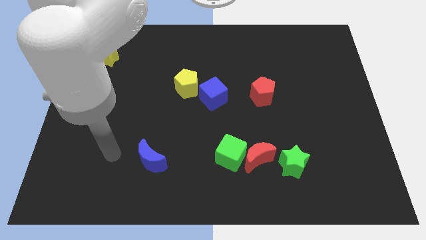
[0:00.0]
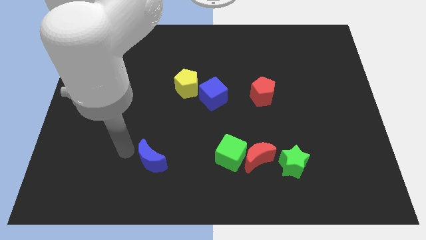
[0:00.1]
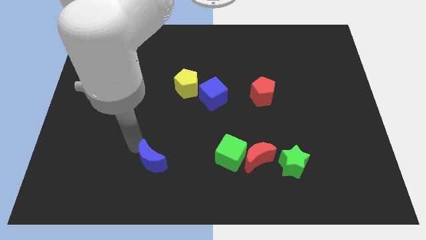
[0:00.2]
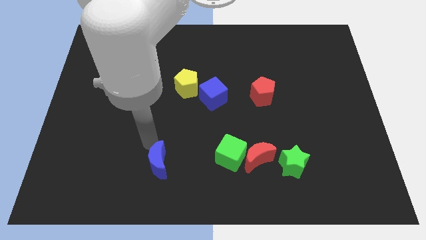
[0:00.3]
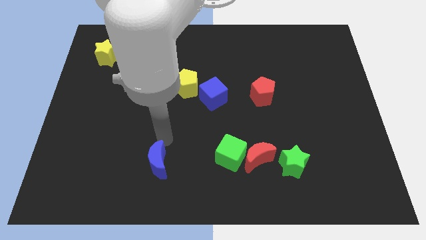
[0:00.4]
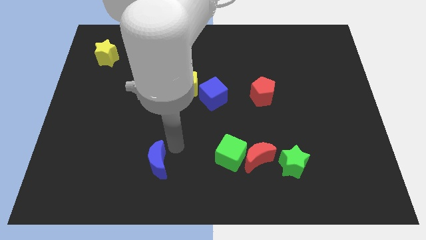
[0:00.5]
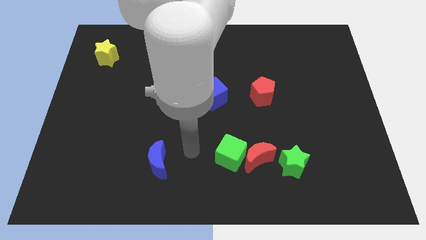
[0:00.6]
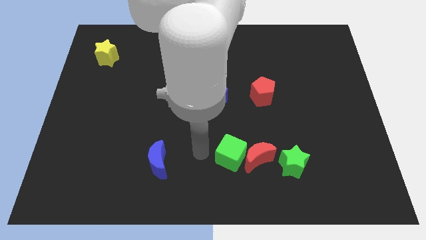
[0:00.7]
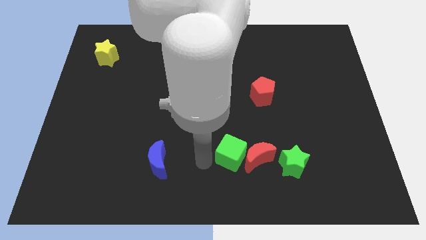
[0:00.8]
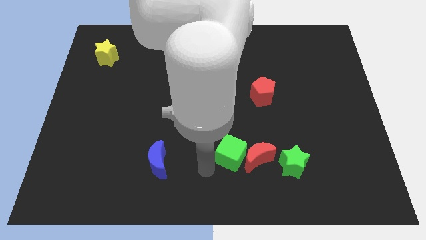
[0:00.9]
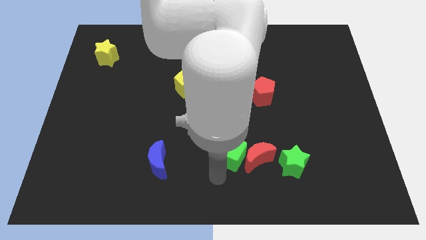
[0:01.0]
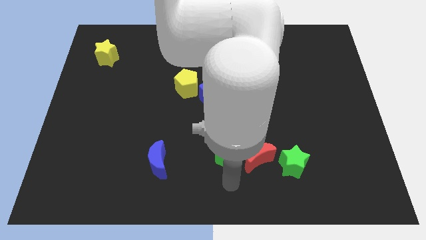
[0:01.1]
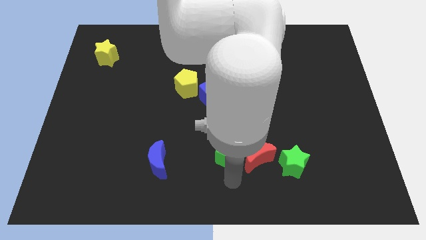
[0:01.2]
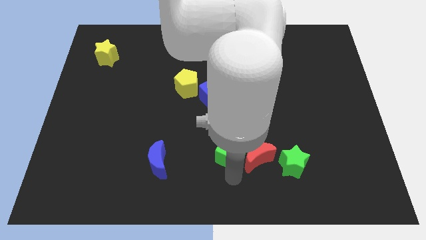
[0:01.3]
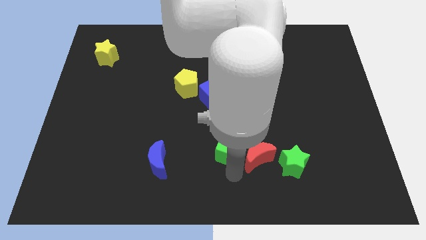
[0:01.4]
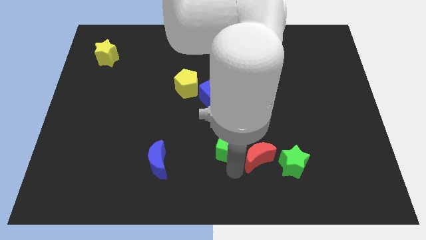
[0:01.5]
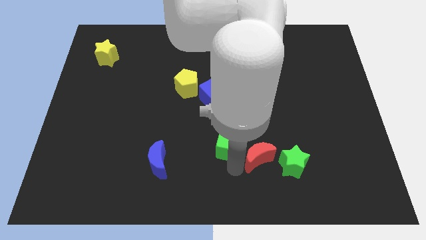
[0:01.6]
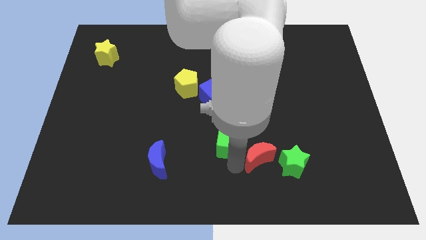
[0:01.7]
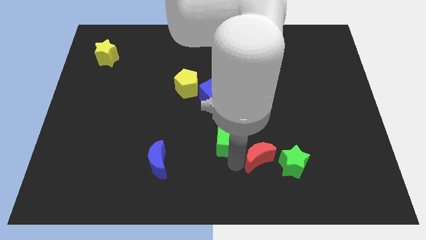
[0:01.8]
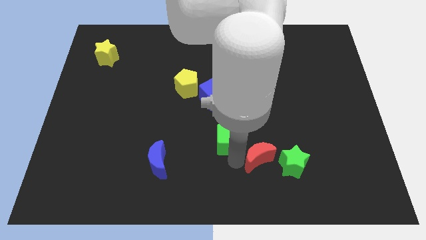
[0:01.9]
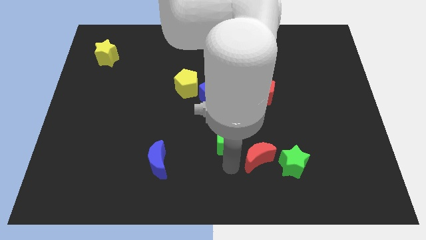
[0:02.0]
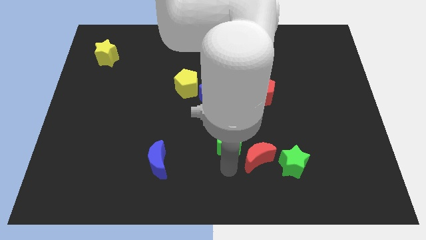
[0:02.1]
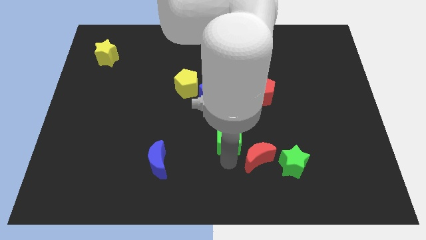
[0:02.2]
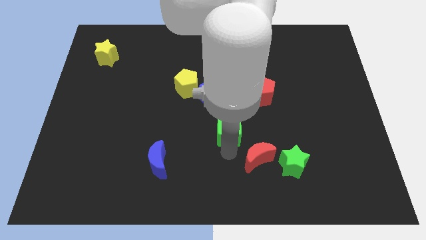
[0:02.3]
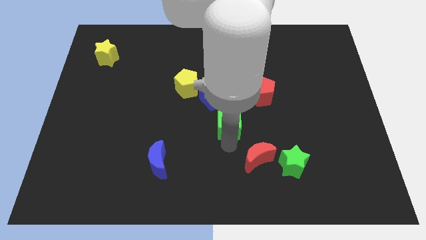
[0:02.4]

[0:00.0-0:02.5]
slide the green cube upwards somewhat

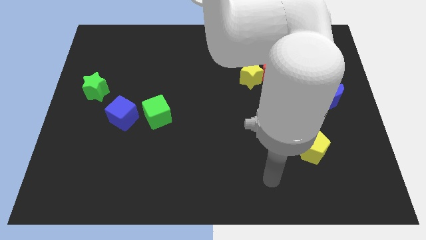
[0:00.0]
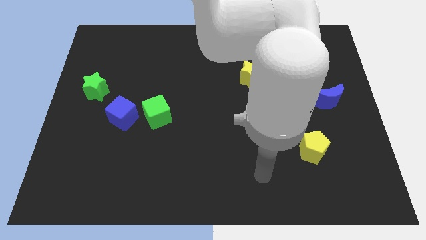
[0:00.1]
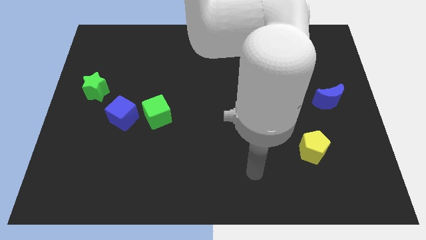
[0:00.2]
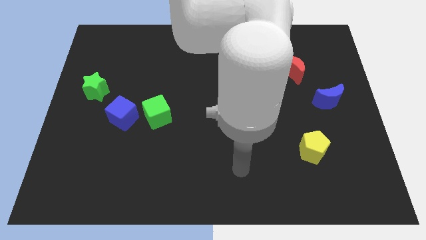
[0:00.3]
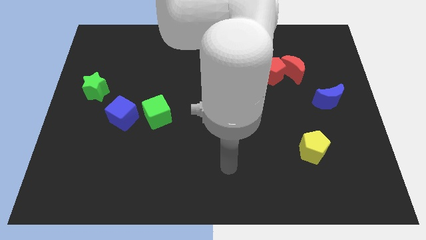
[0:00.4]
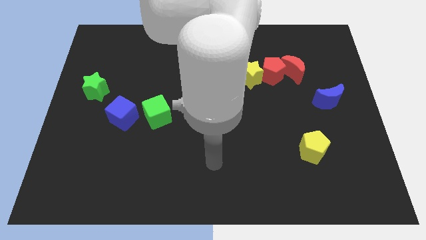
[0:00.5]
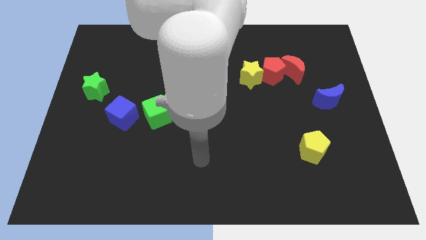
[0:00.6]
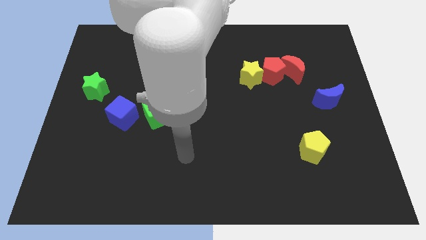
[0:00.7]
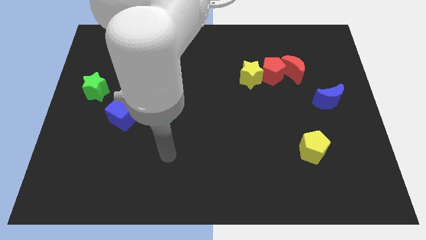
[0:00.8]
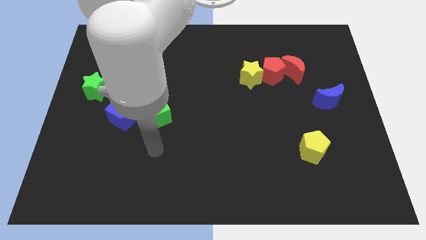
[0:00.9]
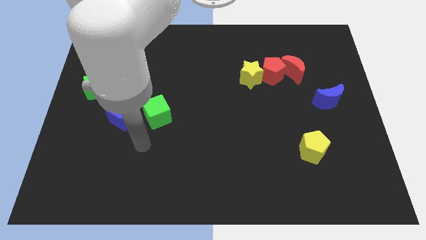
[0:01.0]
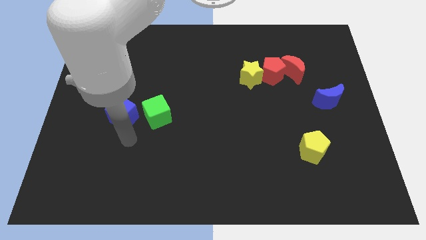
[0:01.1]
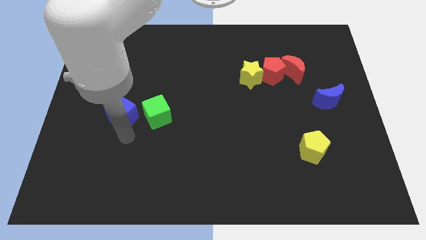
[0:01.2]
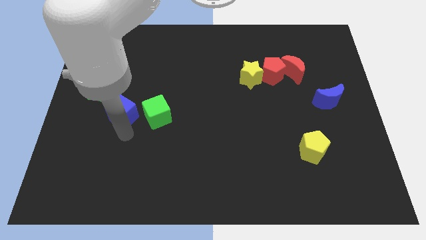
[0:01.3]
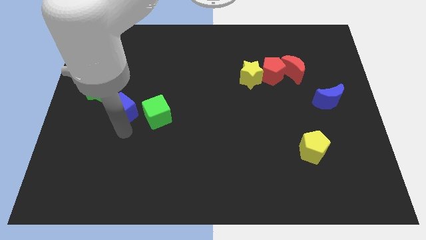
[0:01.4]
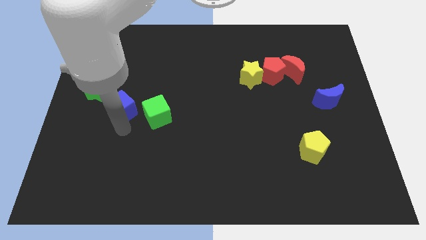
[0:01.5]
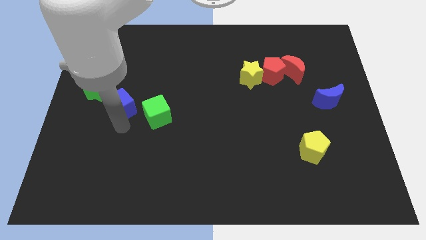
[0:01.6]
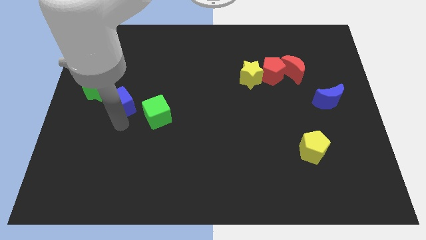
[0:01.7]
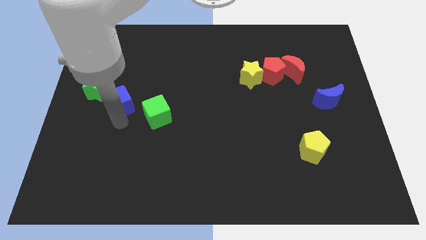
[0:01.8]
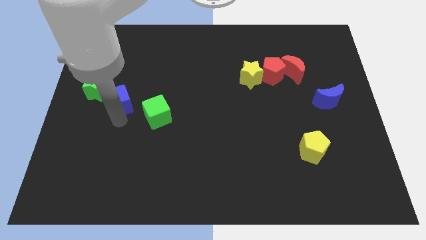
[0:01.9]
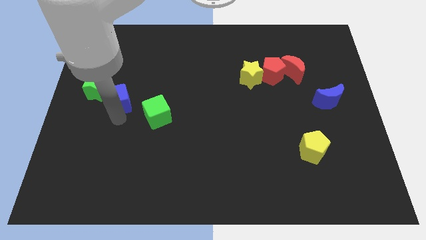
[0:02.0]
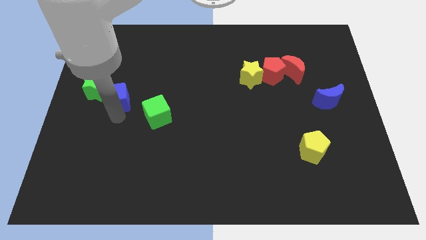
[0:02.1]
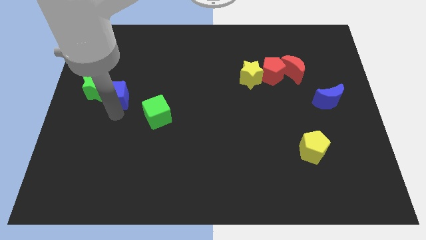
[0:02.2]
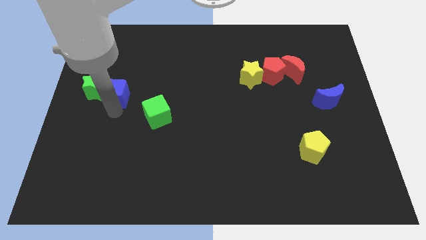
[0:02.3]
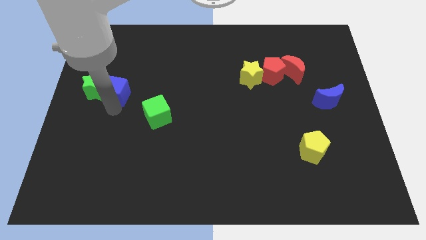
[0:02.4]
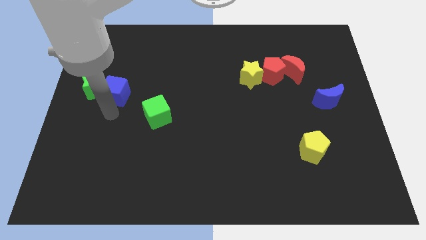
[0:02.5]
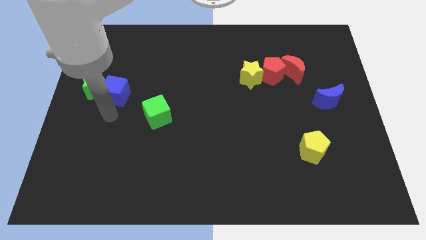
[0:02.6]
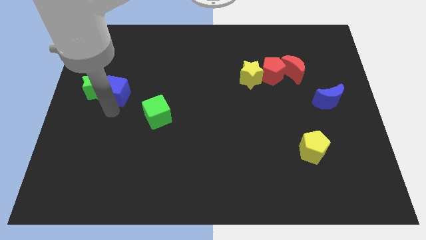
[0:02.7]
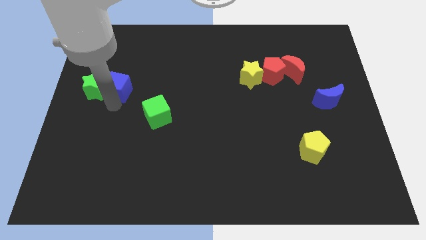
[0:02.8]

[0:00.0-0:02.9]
move the blue cube a little bit upwards

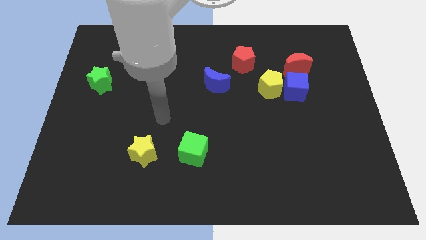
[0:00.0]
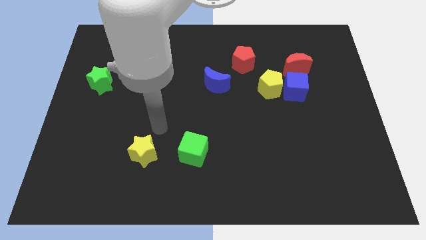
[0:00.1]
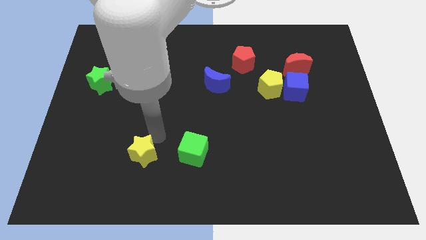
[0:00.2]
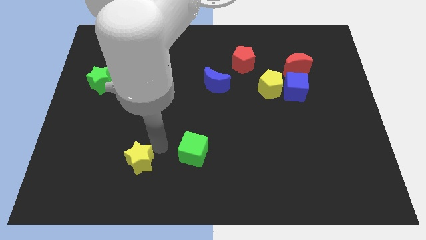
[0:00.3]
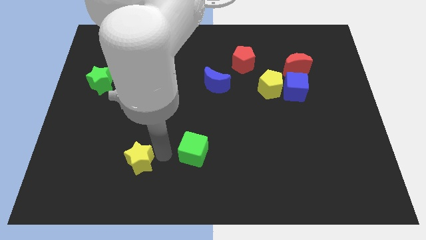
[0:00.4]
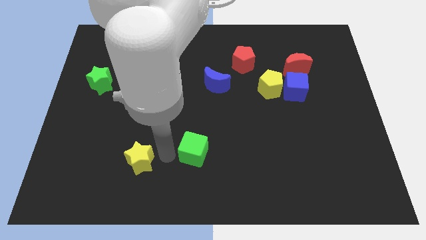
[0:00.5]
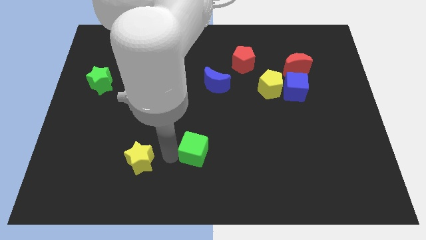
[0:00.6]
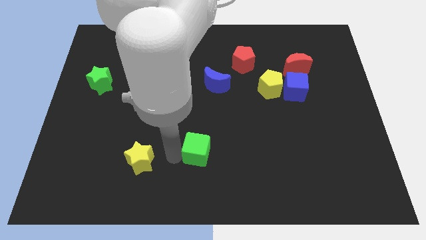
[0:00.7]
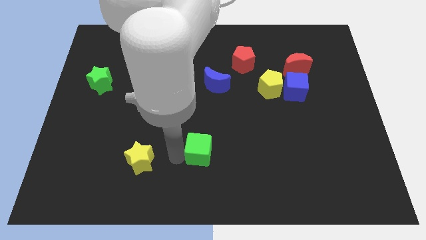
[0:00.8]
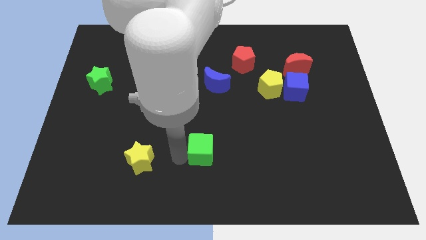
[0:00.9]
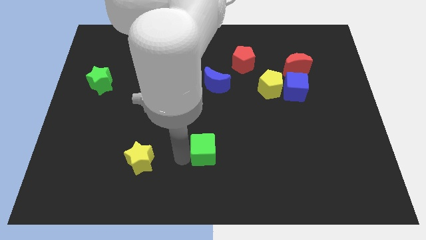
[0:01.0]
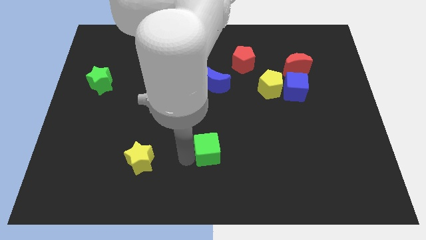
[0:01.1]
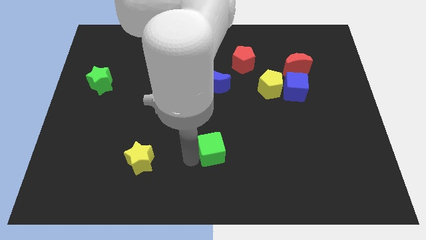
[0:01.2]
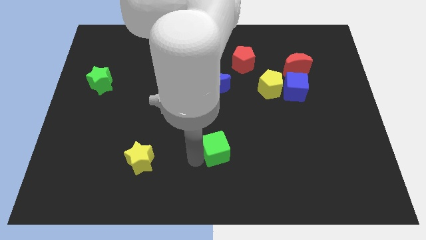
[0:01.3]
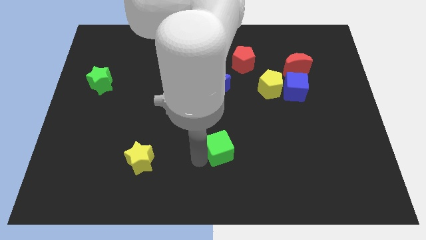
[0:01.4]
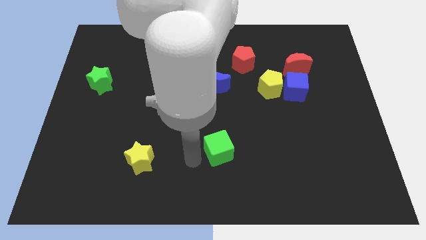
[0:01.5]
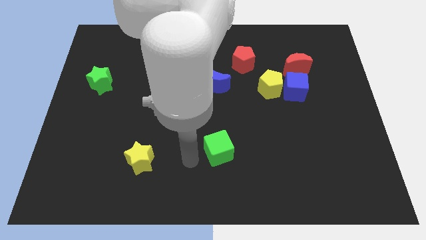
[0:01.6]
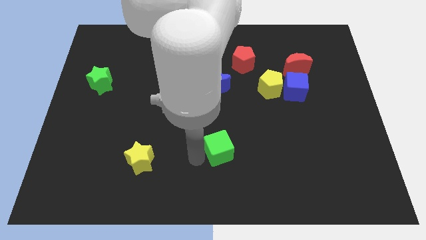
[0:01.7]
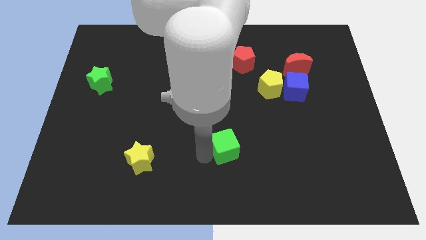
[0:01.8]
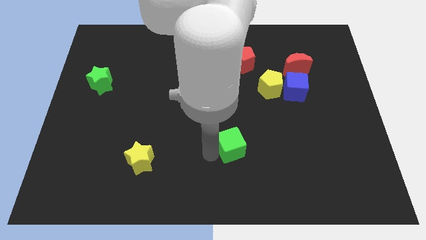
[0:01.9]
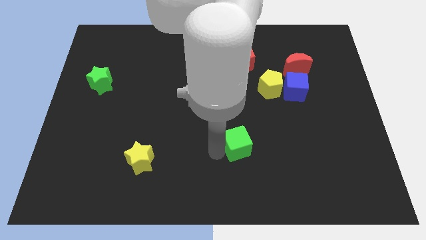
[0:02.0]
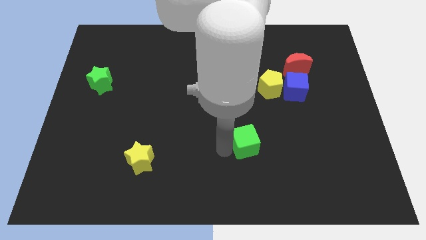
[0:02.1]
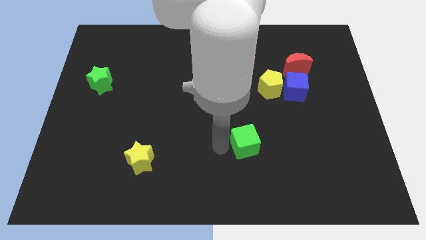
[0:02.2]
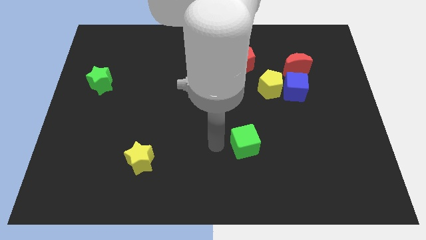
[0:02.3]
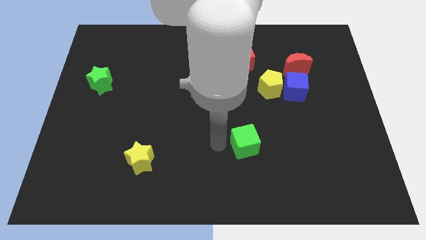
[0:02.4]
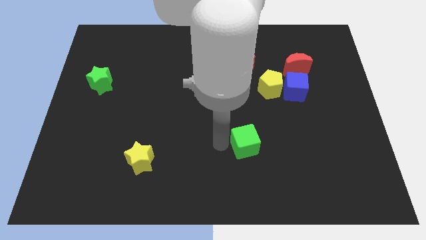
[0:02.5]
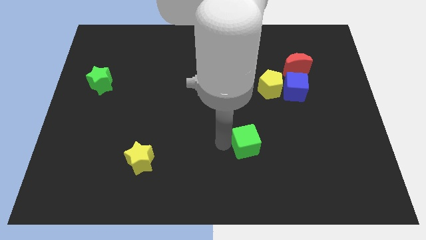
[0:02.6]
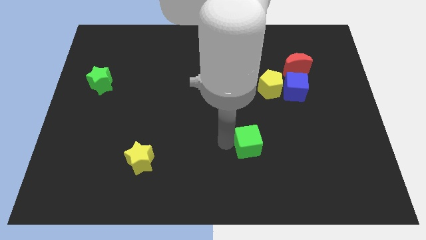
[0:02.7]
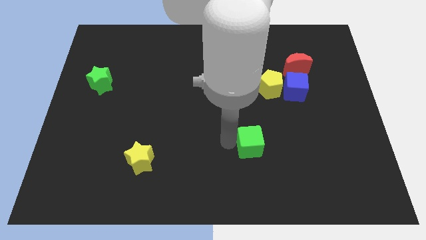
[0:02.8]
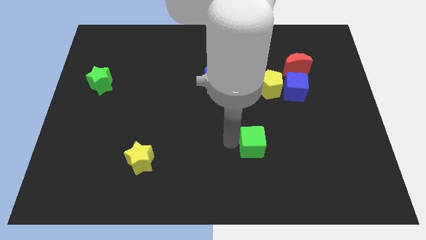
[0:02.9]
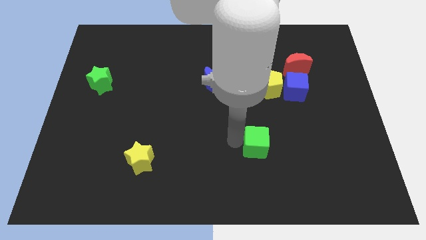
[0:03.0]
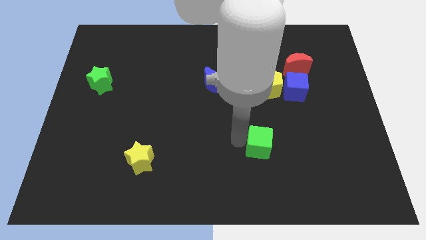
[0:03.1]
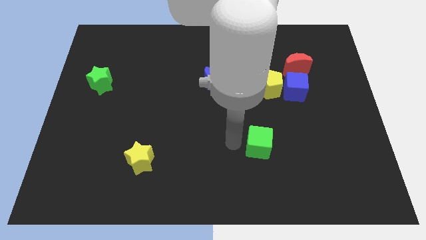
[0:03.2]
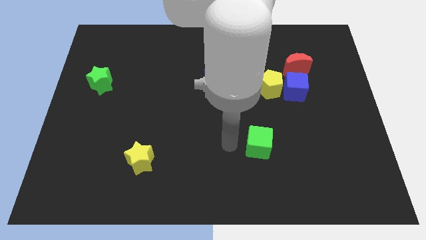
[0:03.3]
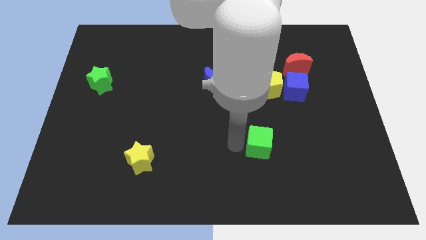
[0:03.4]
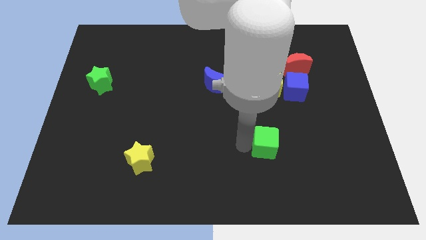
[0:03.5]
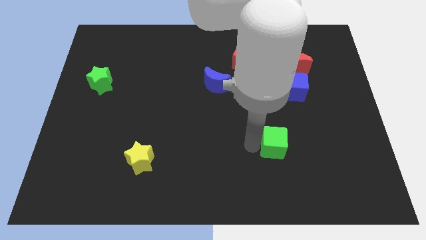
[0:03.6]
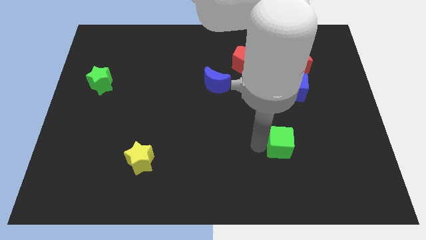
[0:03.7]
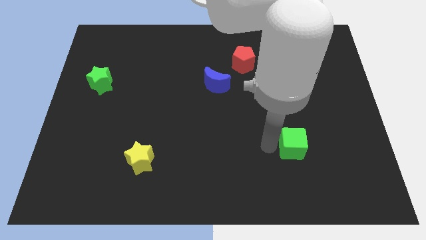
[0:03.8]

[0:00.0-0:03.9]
push the green cube to the right
